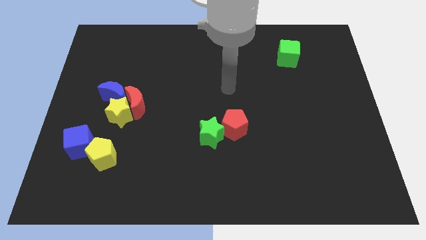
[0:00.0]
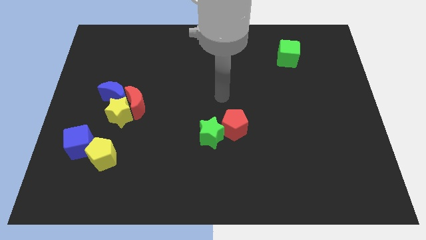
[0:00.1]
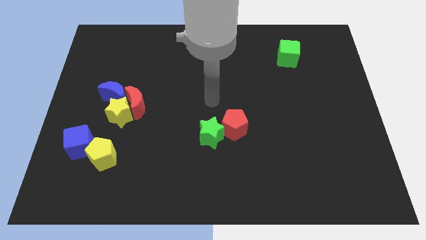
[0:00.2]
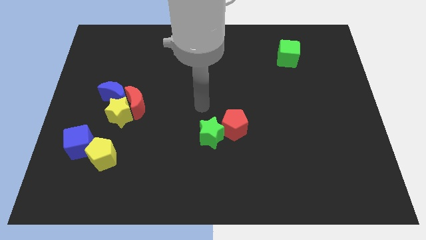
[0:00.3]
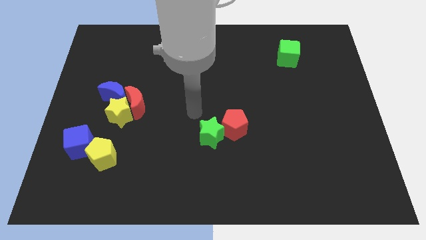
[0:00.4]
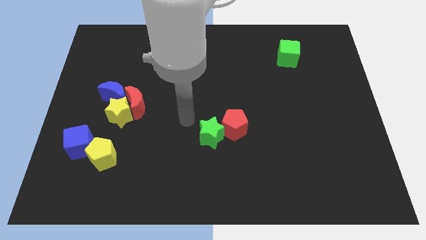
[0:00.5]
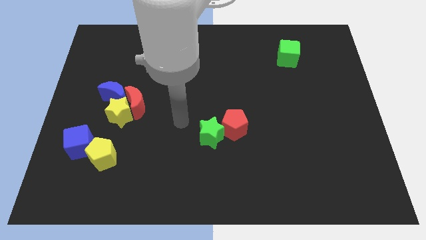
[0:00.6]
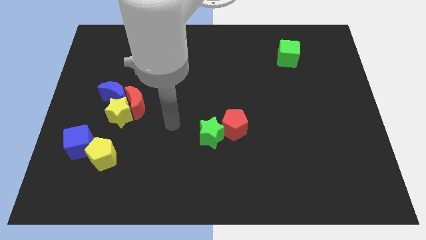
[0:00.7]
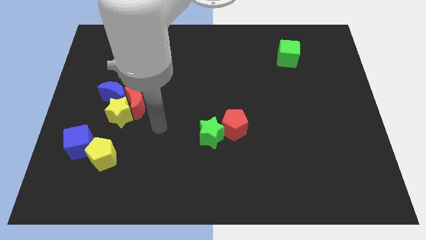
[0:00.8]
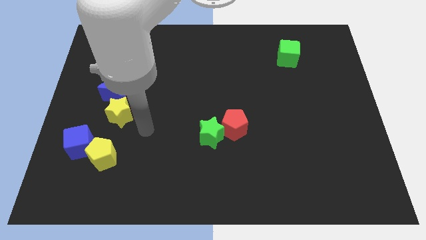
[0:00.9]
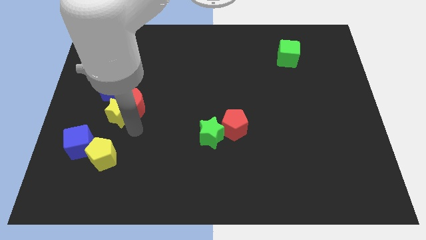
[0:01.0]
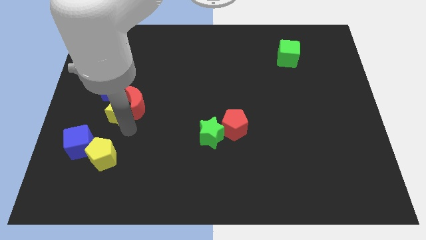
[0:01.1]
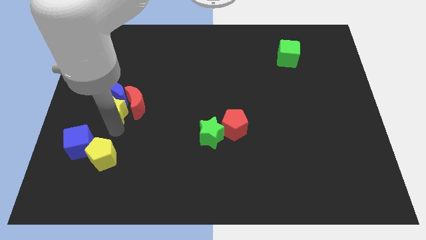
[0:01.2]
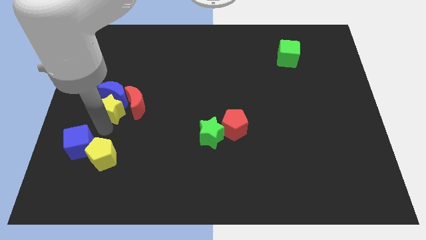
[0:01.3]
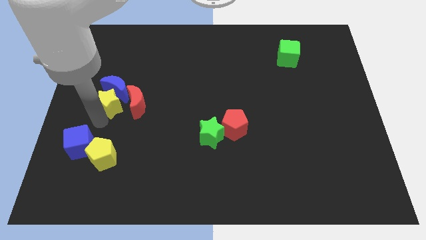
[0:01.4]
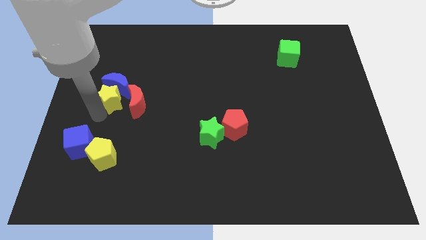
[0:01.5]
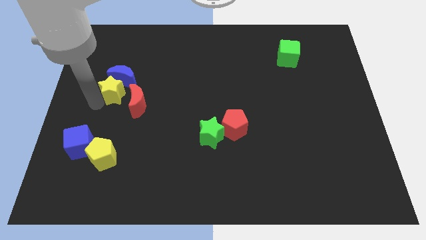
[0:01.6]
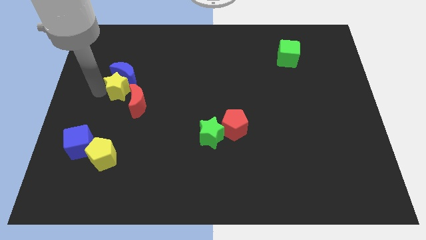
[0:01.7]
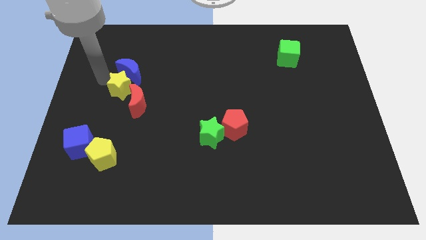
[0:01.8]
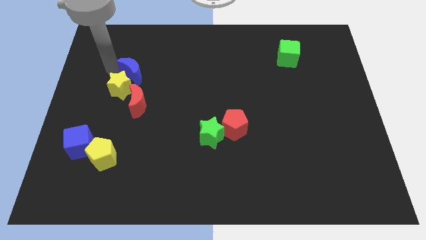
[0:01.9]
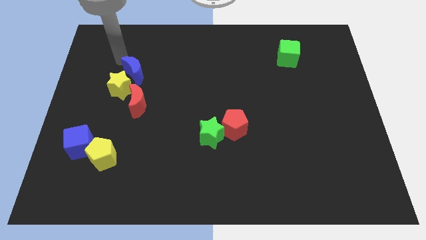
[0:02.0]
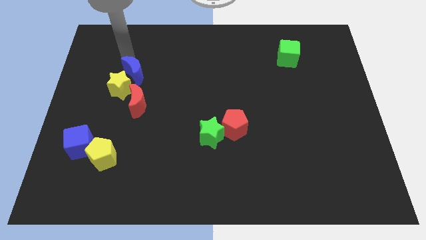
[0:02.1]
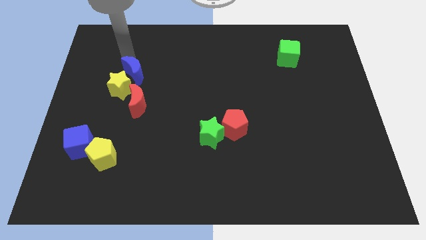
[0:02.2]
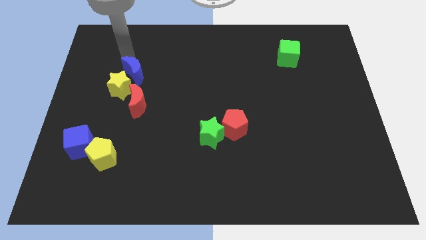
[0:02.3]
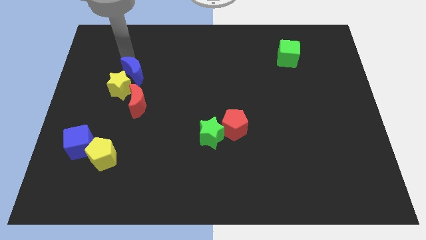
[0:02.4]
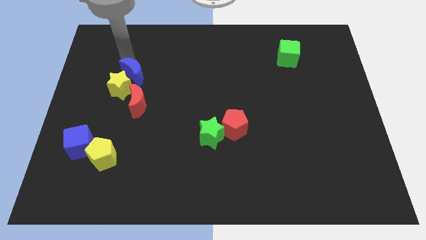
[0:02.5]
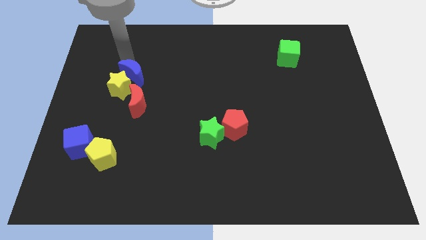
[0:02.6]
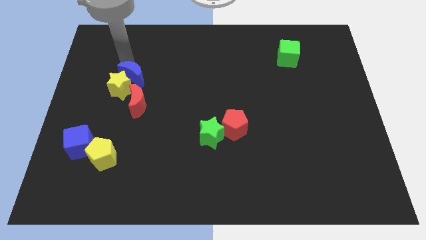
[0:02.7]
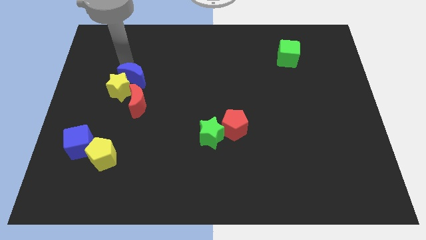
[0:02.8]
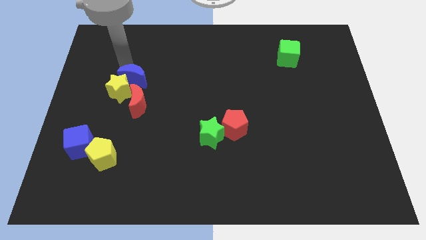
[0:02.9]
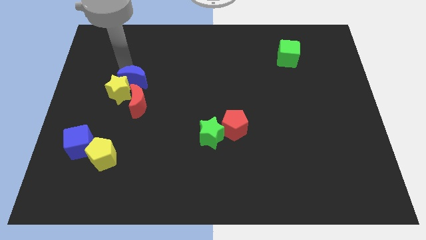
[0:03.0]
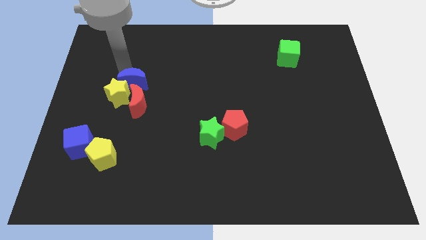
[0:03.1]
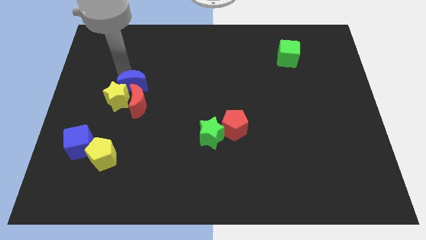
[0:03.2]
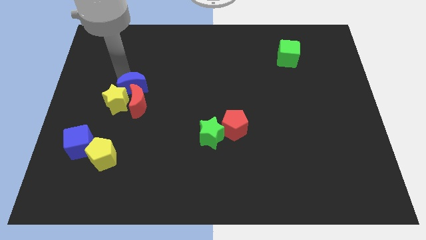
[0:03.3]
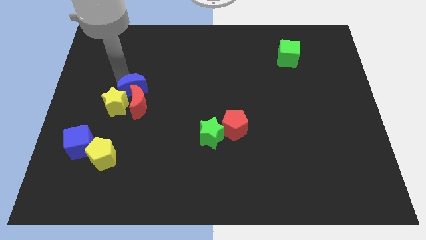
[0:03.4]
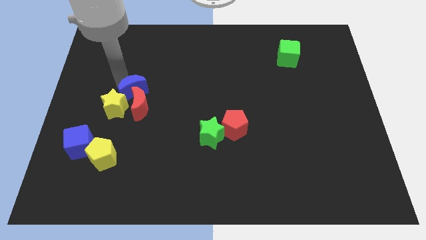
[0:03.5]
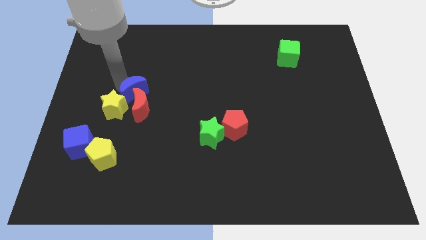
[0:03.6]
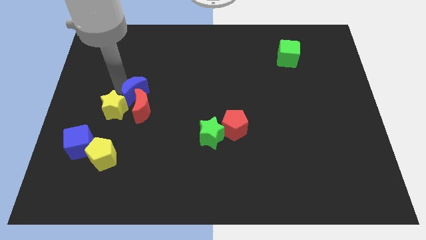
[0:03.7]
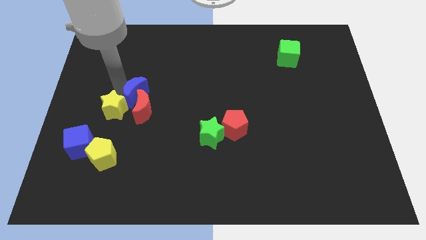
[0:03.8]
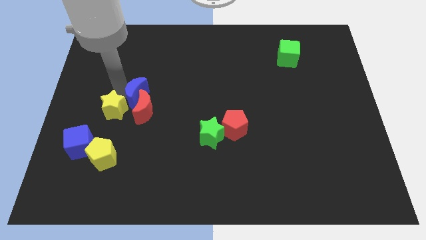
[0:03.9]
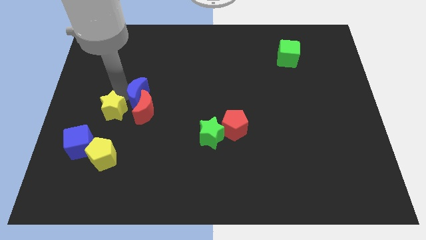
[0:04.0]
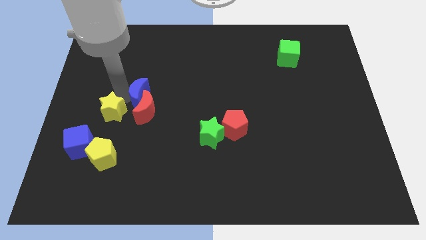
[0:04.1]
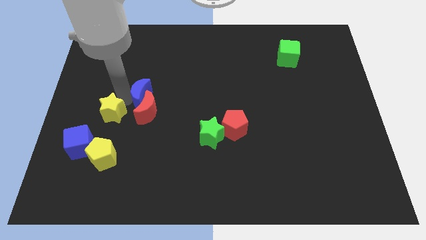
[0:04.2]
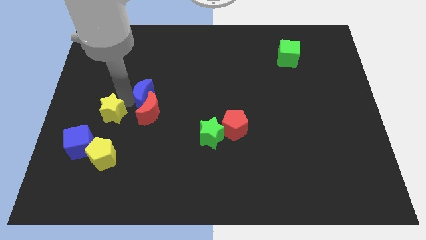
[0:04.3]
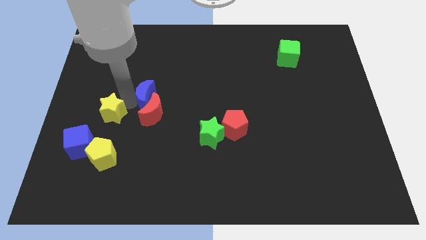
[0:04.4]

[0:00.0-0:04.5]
slide the blue moon a little bit to the right

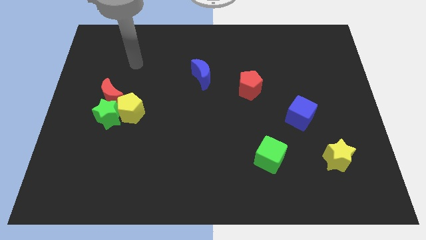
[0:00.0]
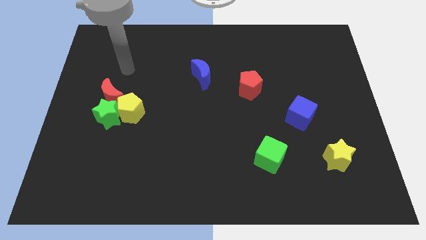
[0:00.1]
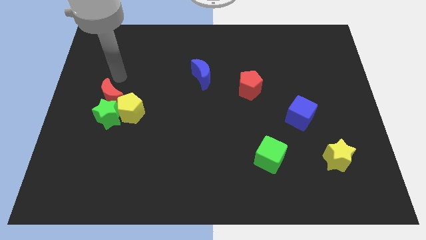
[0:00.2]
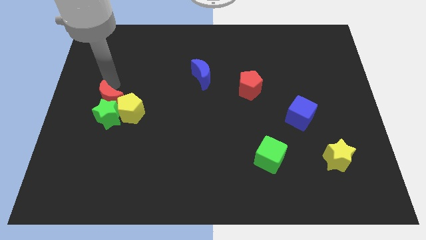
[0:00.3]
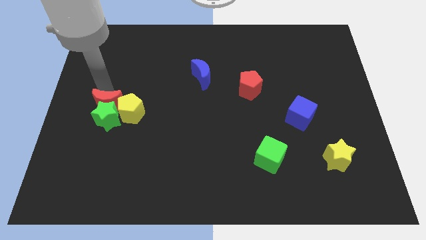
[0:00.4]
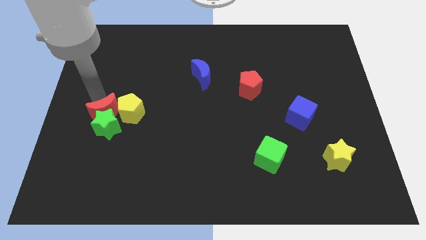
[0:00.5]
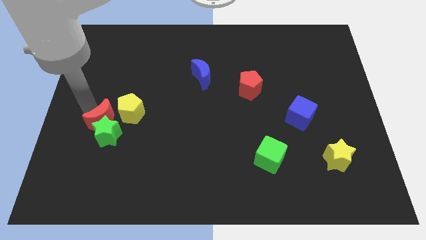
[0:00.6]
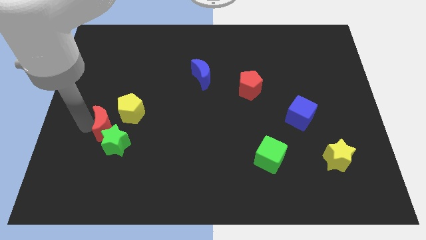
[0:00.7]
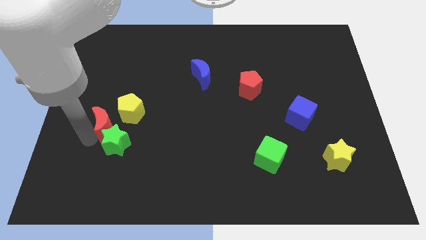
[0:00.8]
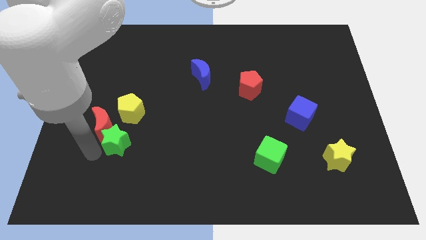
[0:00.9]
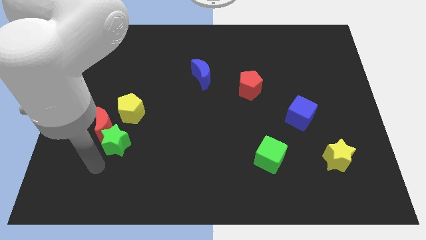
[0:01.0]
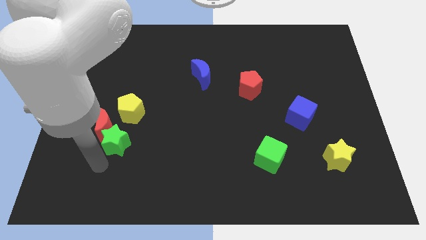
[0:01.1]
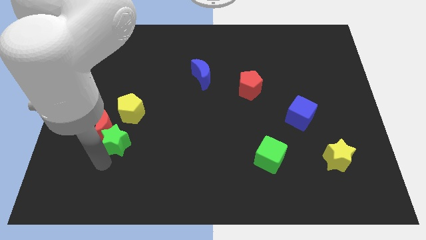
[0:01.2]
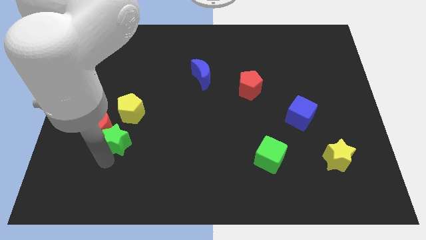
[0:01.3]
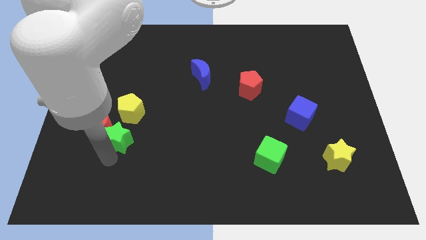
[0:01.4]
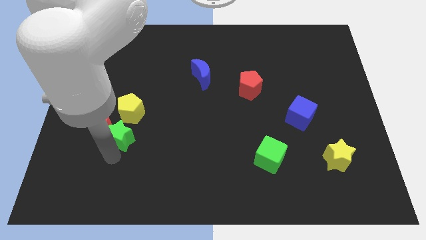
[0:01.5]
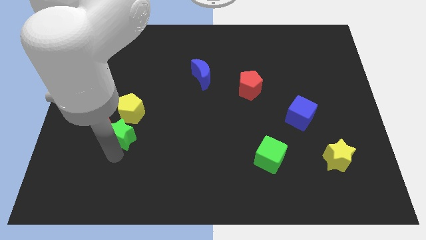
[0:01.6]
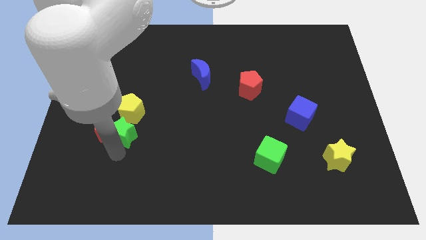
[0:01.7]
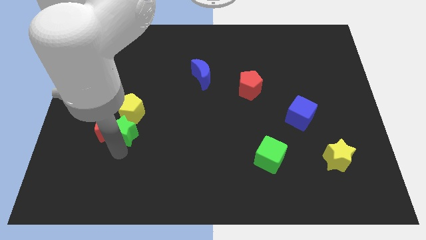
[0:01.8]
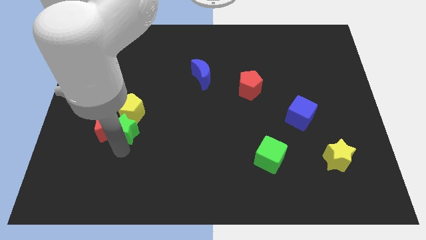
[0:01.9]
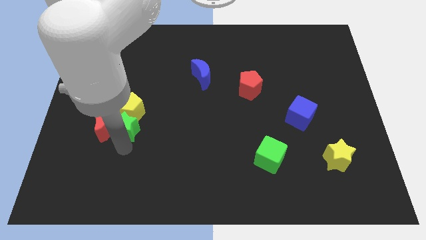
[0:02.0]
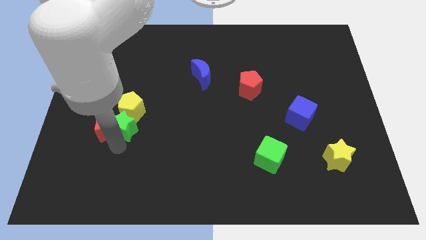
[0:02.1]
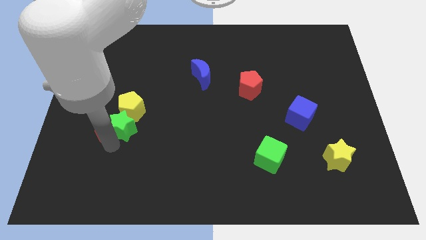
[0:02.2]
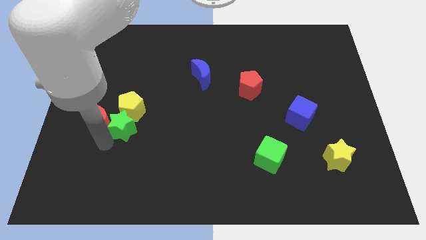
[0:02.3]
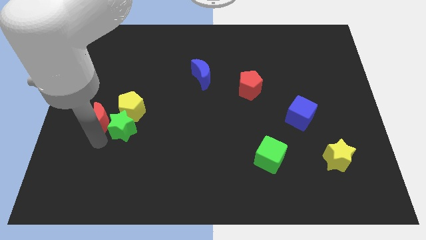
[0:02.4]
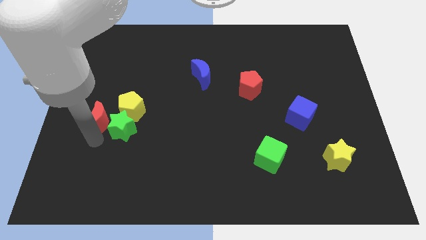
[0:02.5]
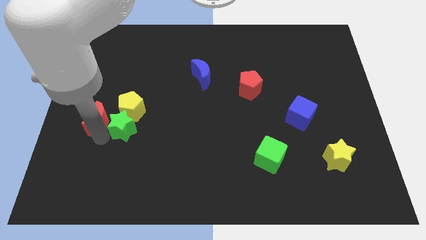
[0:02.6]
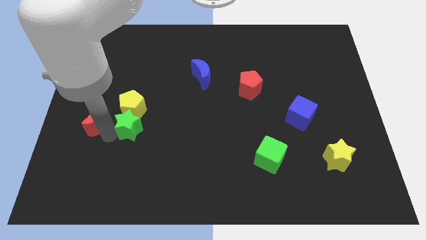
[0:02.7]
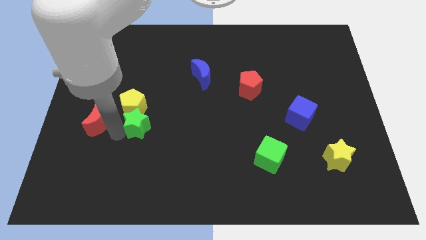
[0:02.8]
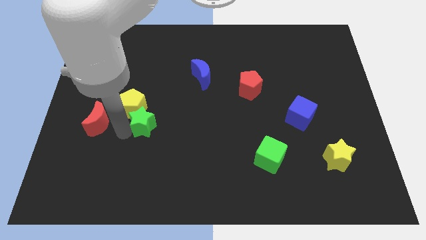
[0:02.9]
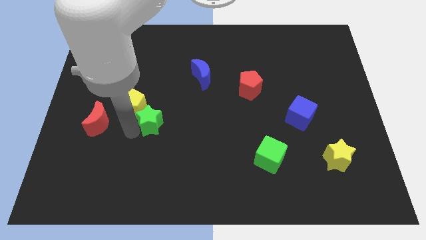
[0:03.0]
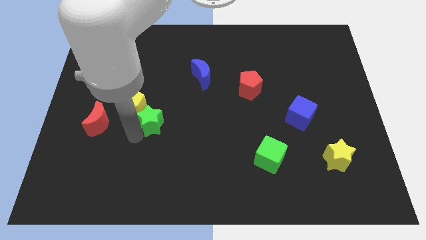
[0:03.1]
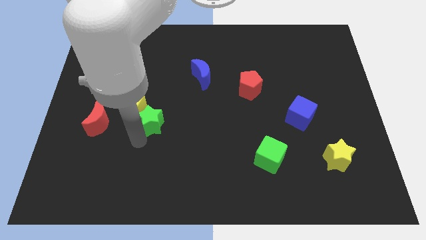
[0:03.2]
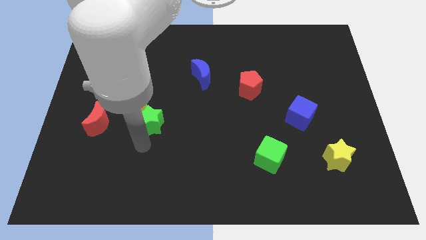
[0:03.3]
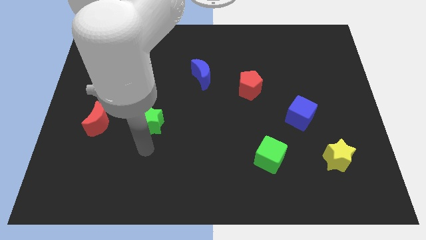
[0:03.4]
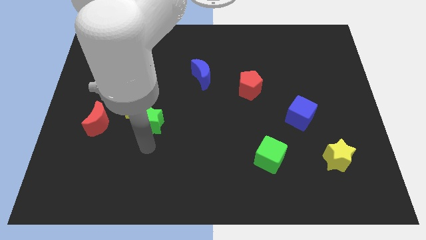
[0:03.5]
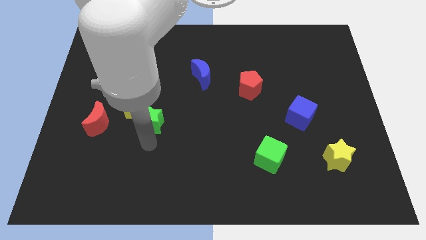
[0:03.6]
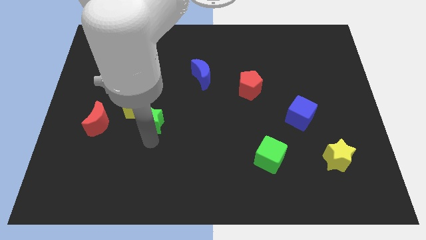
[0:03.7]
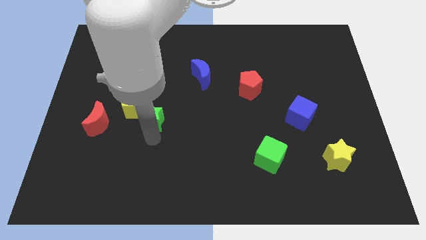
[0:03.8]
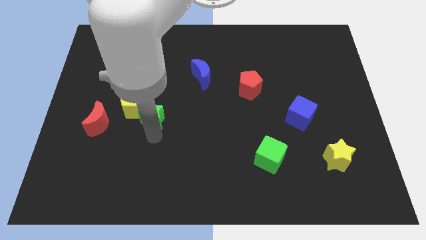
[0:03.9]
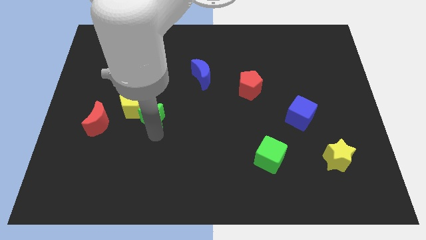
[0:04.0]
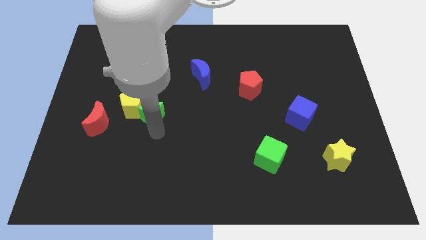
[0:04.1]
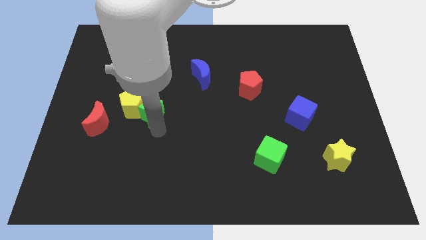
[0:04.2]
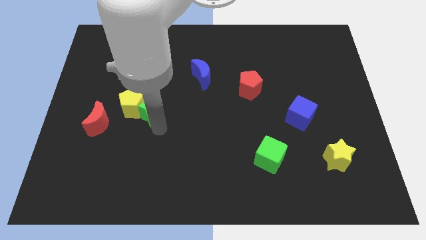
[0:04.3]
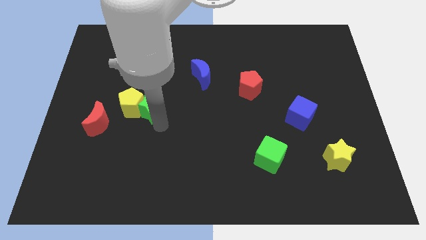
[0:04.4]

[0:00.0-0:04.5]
slightly slide the green star upwards and then right
